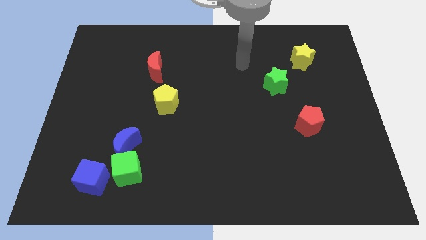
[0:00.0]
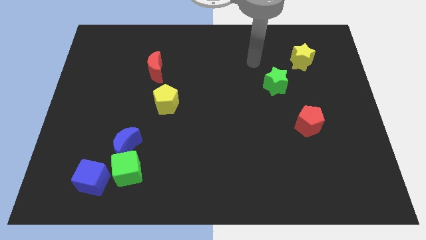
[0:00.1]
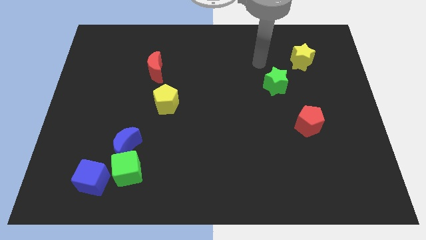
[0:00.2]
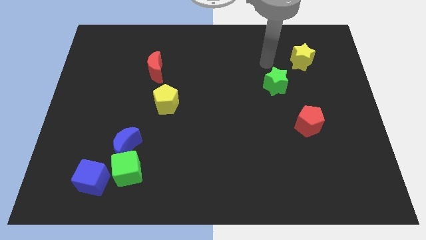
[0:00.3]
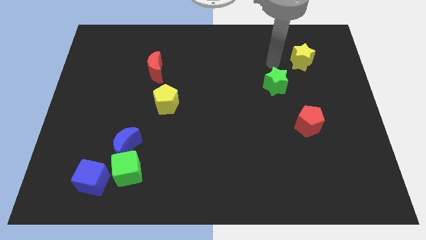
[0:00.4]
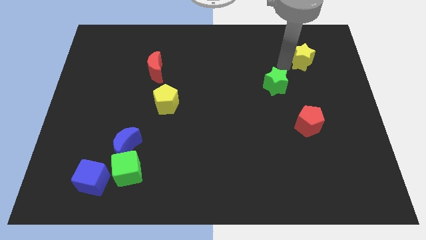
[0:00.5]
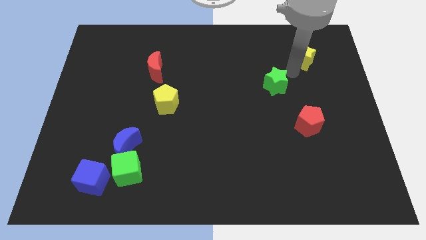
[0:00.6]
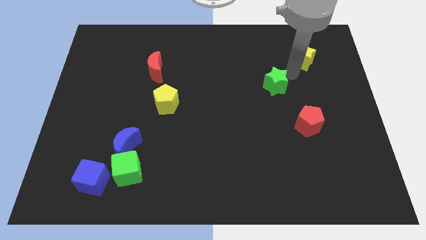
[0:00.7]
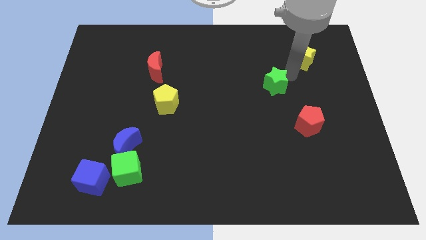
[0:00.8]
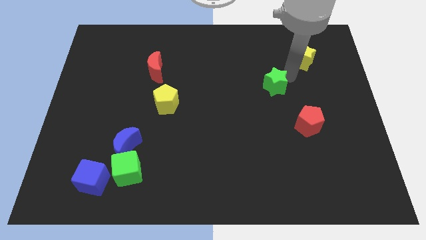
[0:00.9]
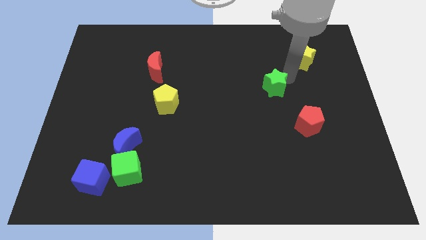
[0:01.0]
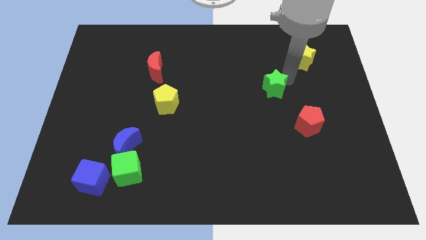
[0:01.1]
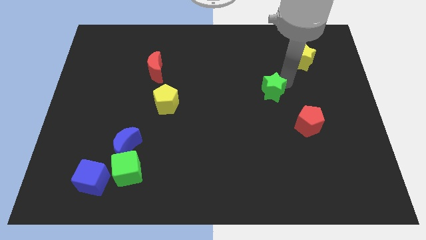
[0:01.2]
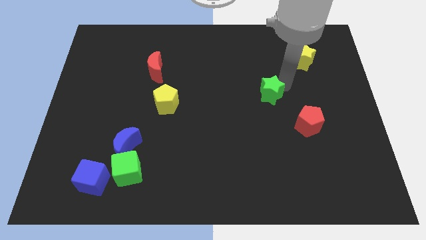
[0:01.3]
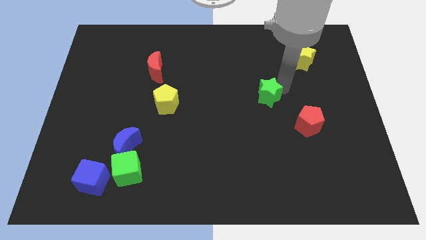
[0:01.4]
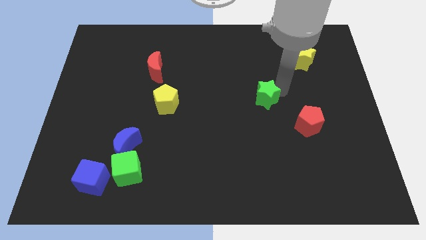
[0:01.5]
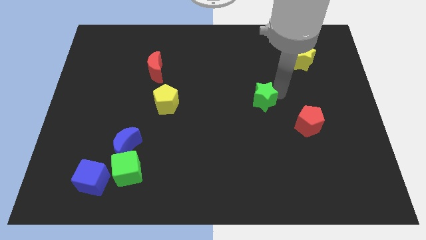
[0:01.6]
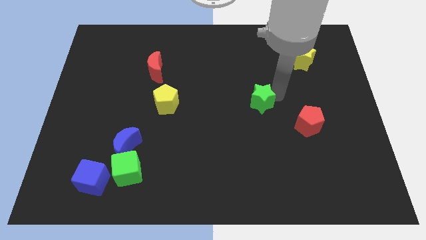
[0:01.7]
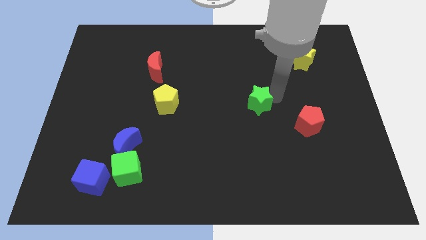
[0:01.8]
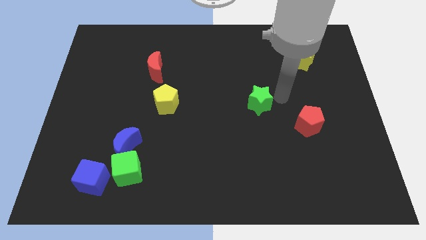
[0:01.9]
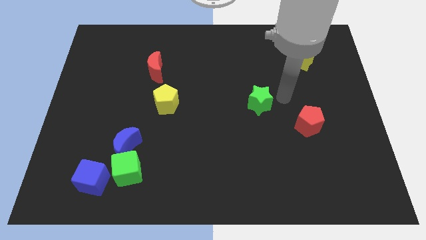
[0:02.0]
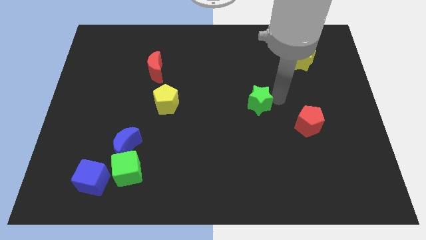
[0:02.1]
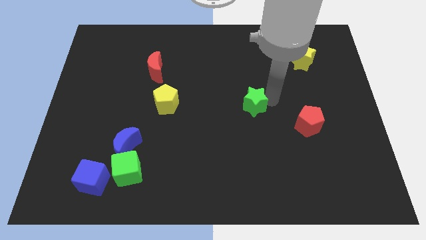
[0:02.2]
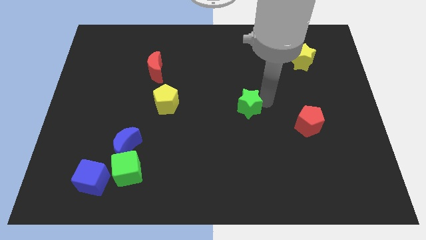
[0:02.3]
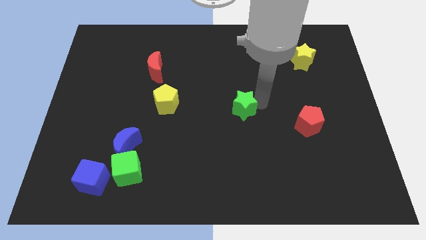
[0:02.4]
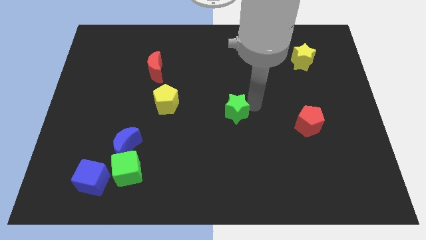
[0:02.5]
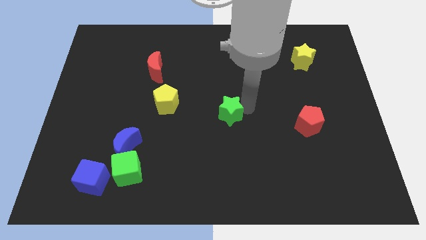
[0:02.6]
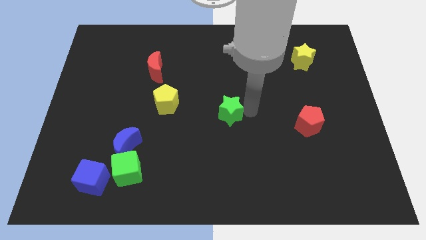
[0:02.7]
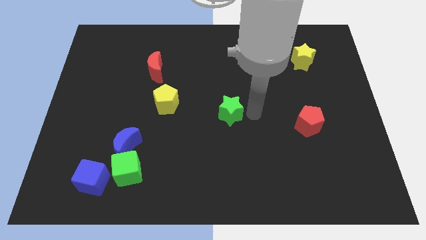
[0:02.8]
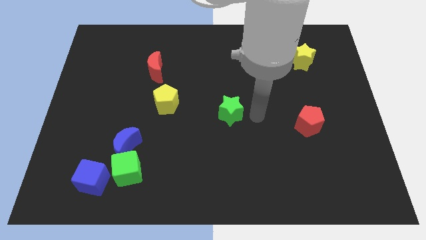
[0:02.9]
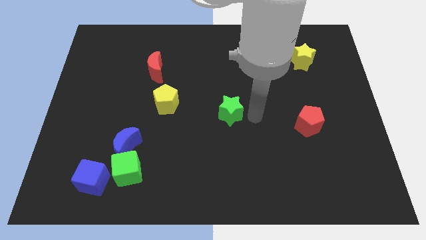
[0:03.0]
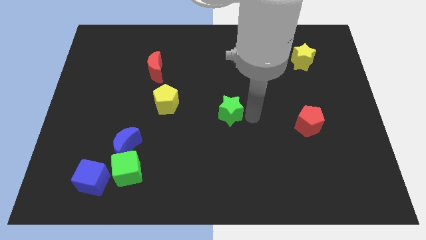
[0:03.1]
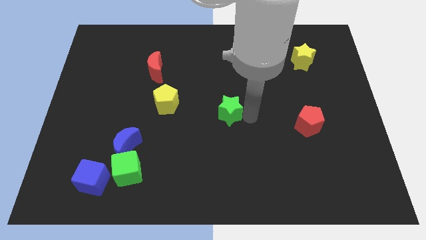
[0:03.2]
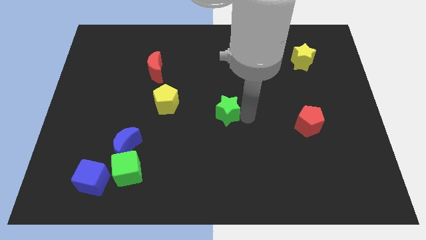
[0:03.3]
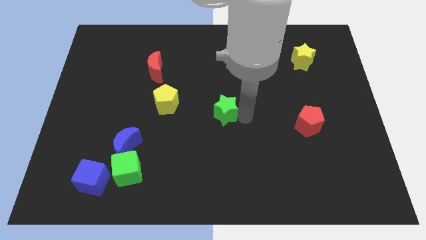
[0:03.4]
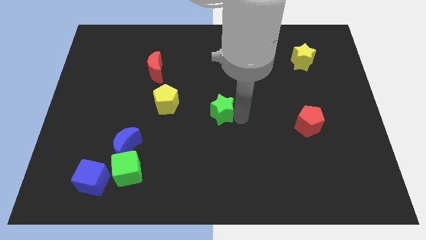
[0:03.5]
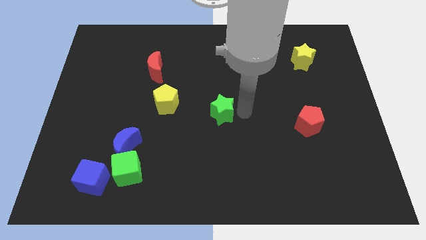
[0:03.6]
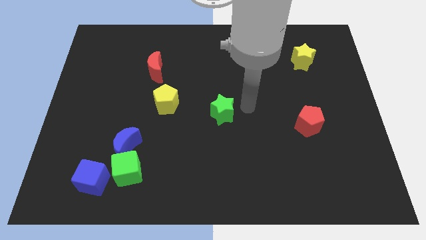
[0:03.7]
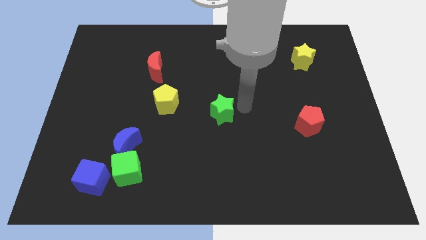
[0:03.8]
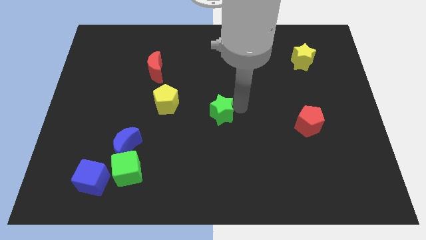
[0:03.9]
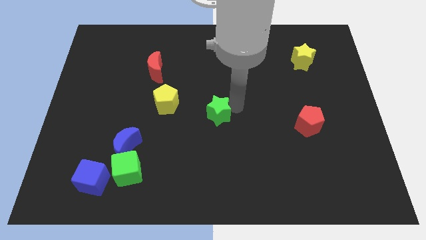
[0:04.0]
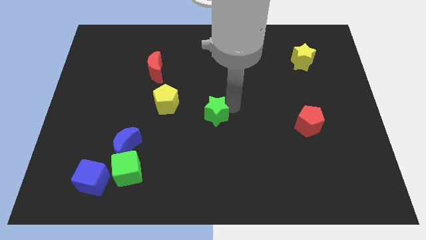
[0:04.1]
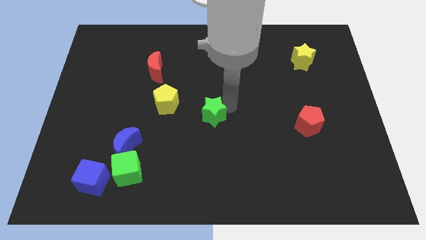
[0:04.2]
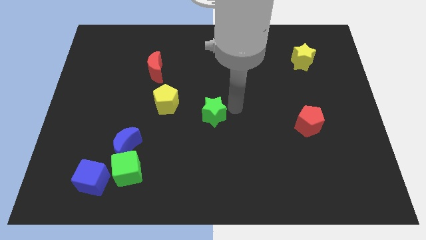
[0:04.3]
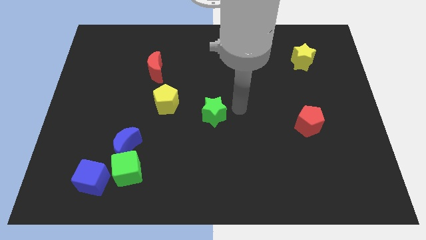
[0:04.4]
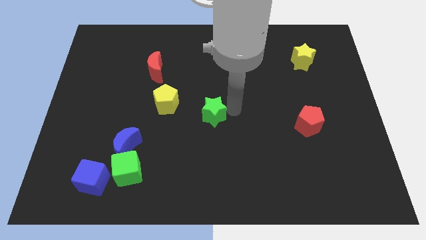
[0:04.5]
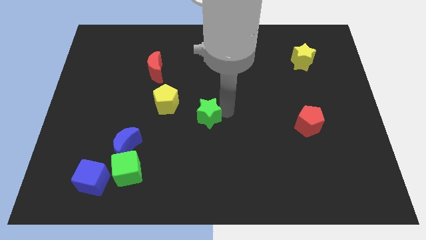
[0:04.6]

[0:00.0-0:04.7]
slide the green star to the bottom right side of the yellow pentagon

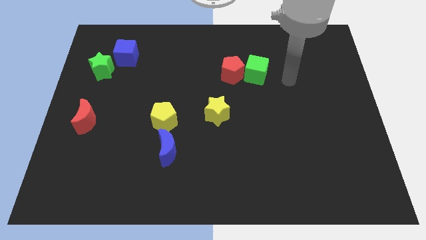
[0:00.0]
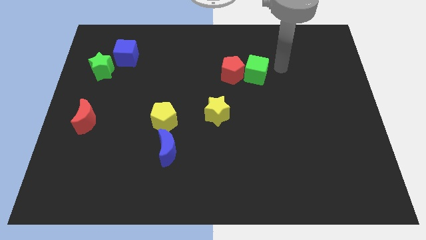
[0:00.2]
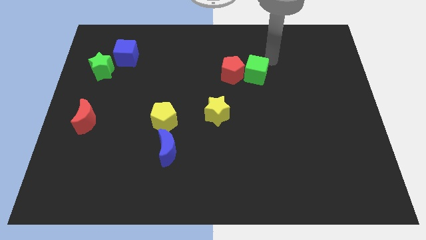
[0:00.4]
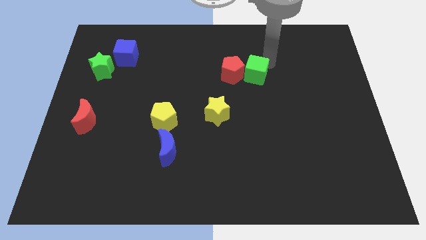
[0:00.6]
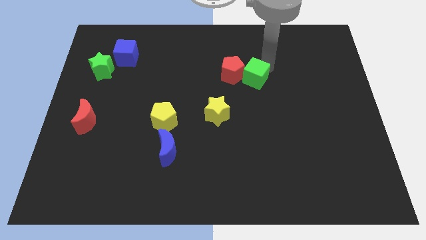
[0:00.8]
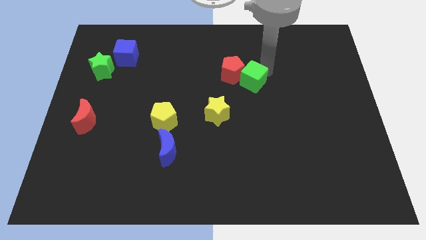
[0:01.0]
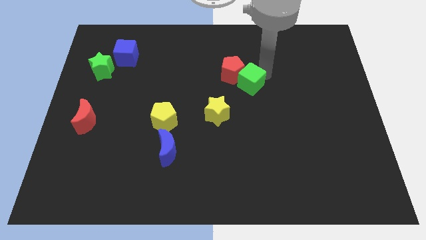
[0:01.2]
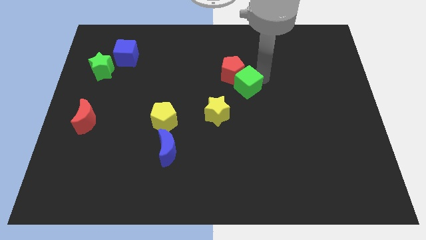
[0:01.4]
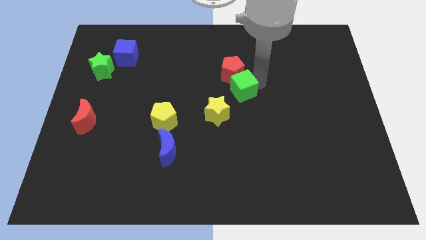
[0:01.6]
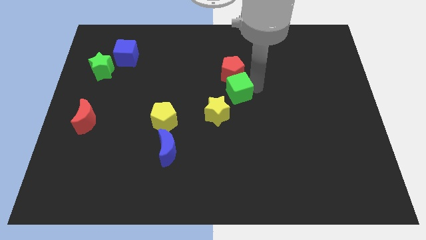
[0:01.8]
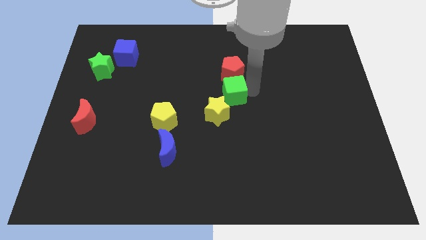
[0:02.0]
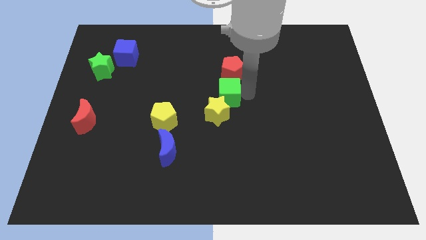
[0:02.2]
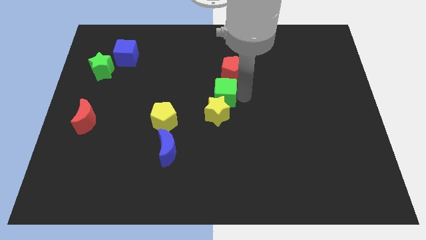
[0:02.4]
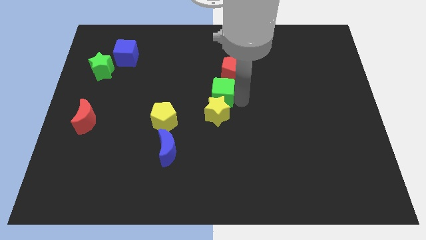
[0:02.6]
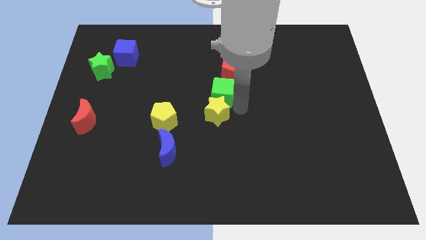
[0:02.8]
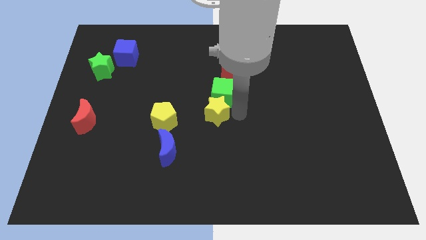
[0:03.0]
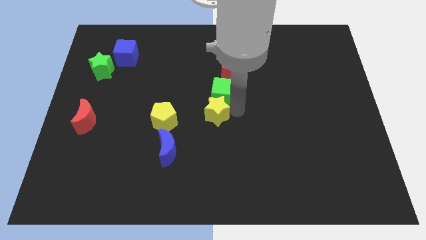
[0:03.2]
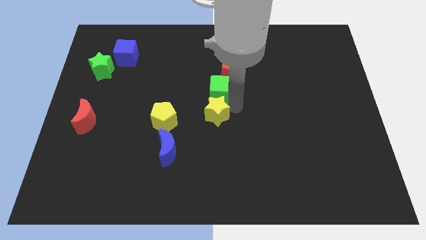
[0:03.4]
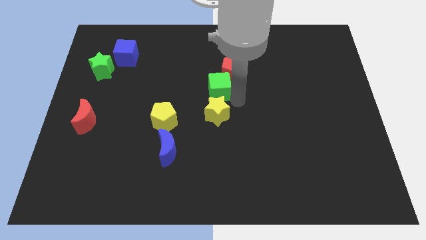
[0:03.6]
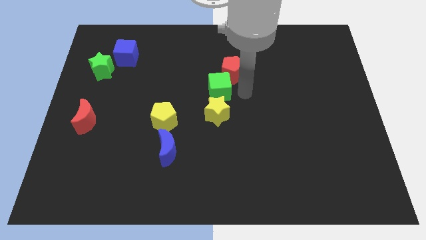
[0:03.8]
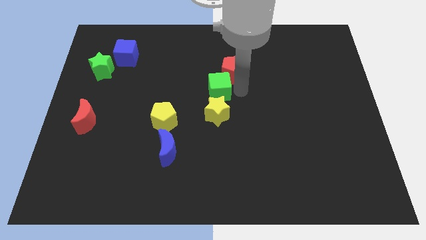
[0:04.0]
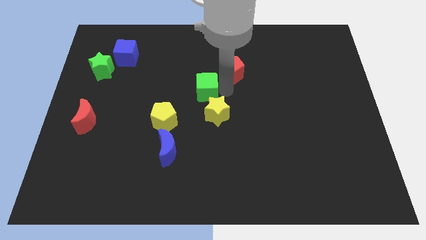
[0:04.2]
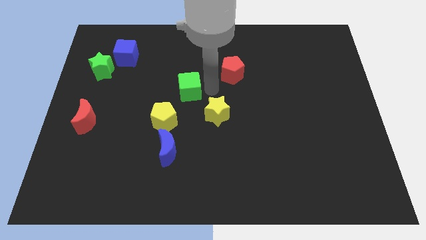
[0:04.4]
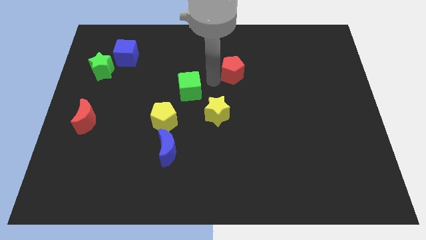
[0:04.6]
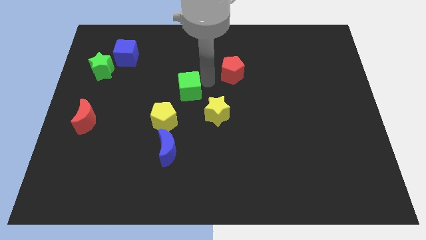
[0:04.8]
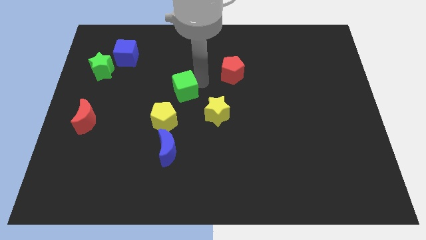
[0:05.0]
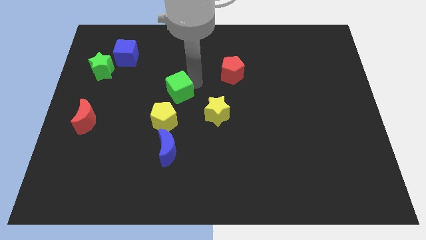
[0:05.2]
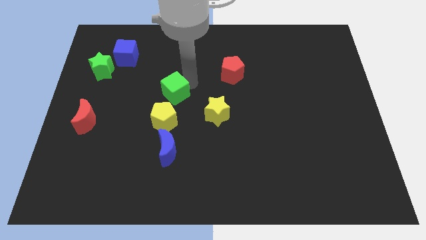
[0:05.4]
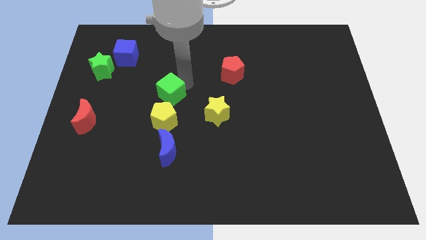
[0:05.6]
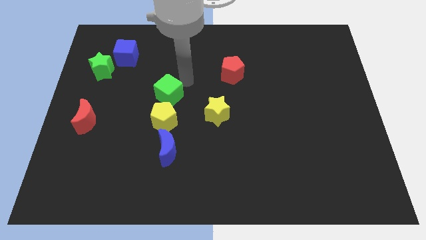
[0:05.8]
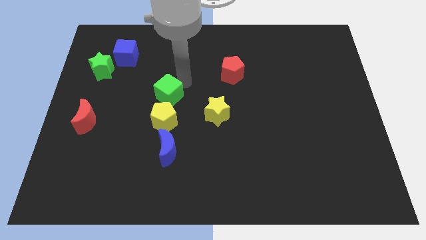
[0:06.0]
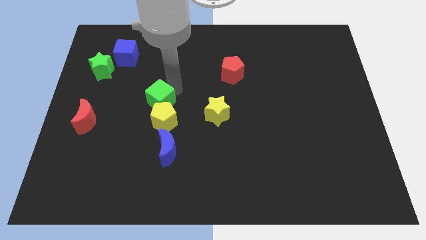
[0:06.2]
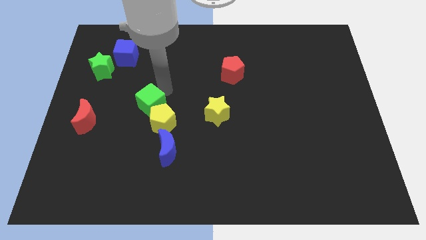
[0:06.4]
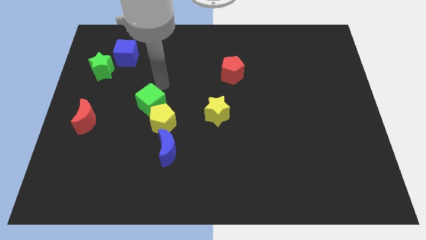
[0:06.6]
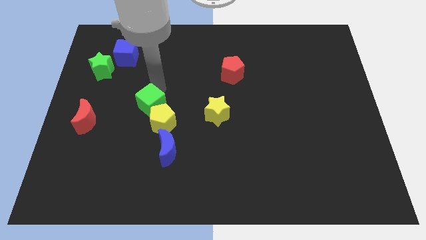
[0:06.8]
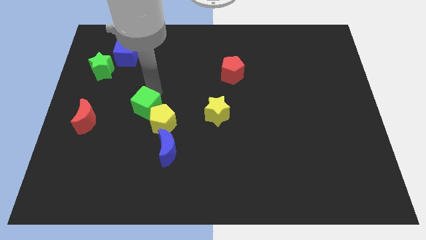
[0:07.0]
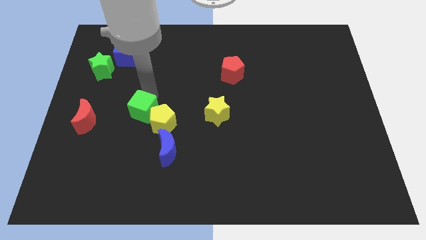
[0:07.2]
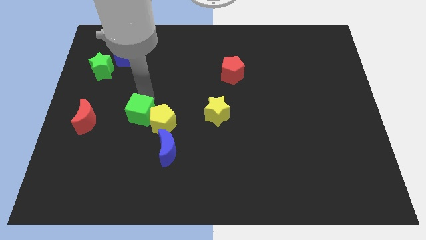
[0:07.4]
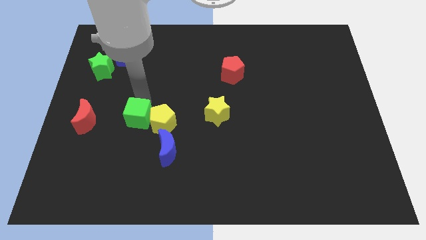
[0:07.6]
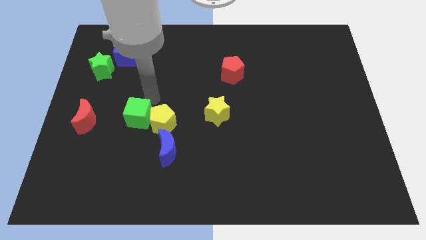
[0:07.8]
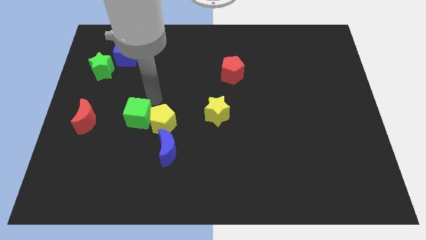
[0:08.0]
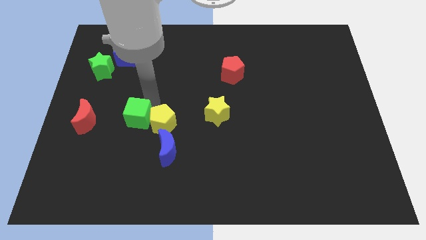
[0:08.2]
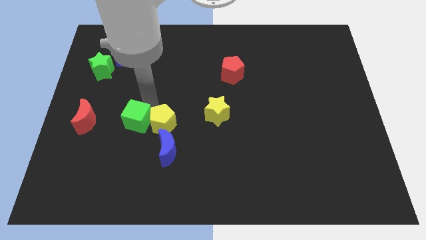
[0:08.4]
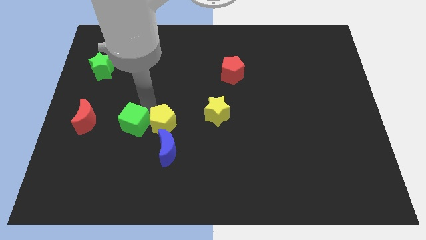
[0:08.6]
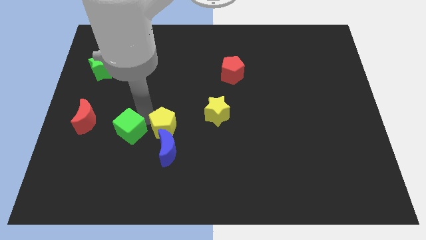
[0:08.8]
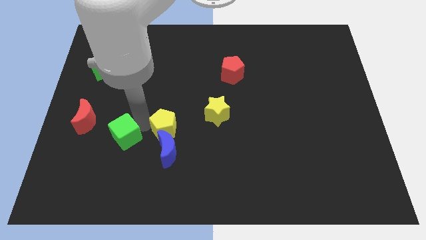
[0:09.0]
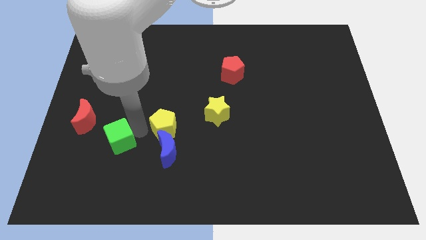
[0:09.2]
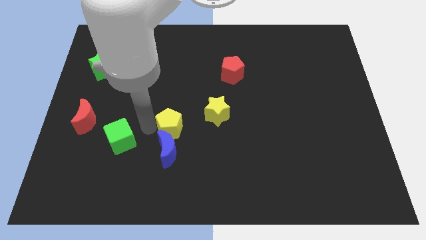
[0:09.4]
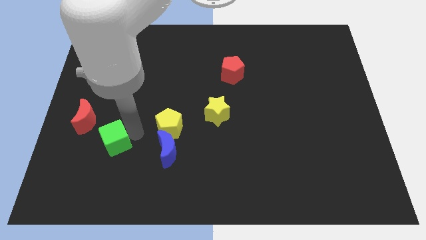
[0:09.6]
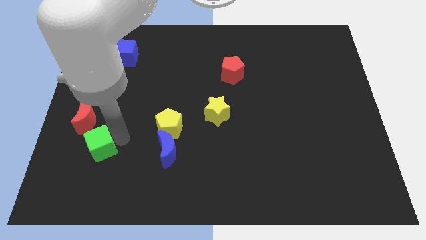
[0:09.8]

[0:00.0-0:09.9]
move the green cube below the red moon
